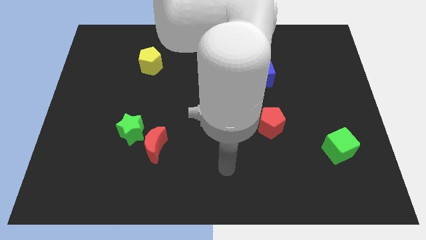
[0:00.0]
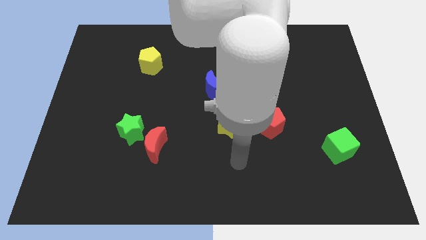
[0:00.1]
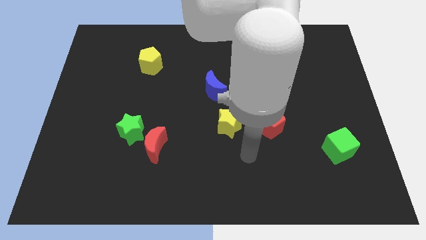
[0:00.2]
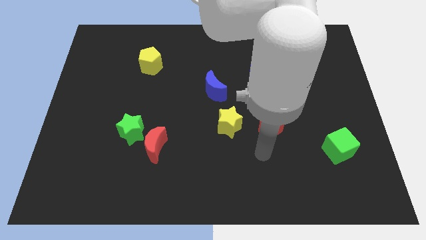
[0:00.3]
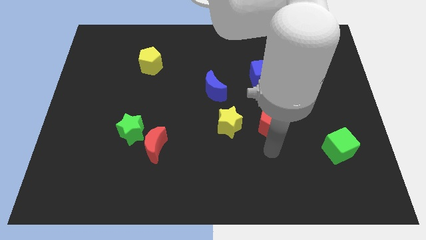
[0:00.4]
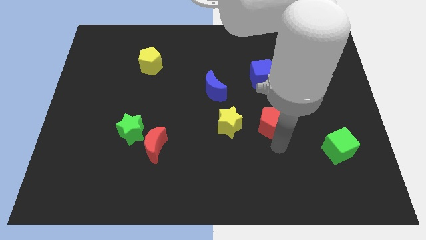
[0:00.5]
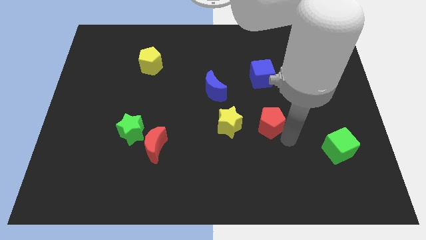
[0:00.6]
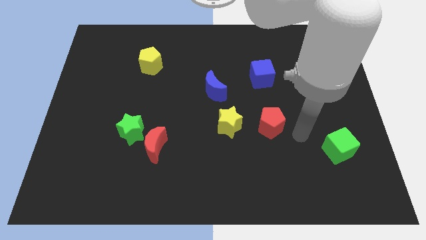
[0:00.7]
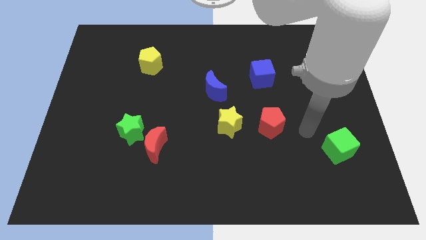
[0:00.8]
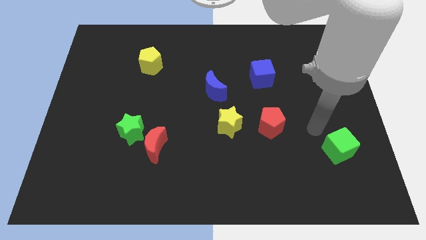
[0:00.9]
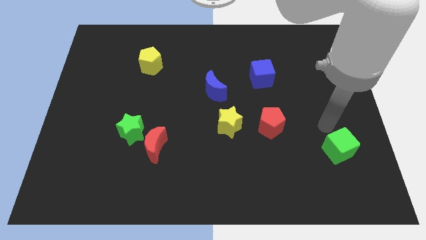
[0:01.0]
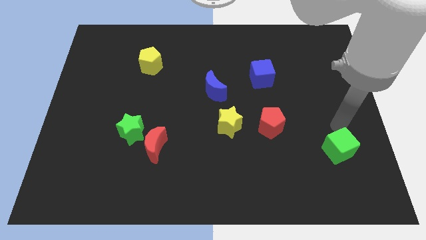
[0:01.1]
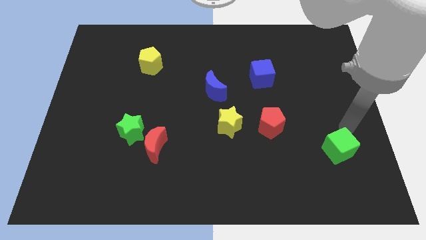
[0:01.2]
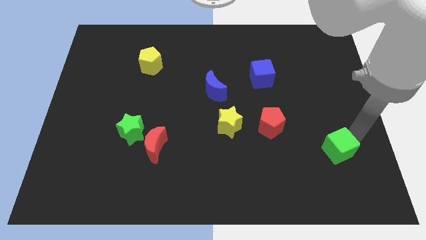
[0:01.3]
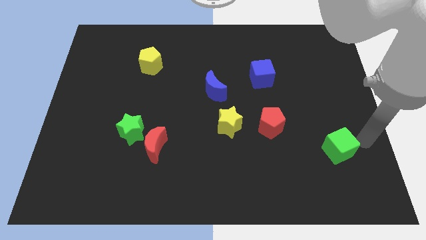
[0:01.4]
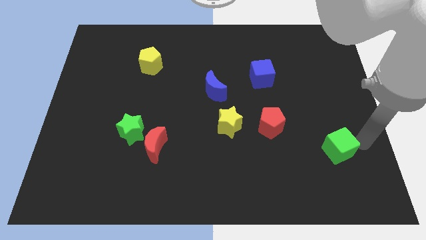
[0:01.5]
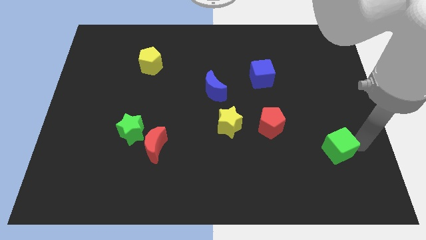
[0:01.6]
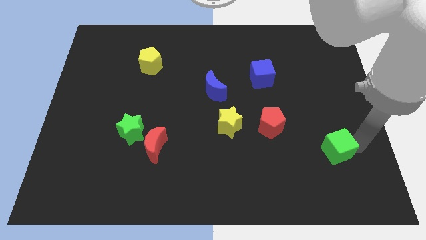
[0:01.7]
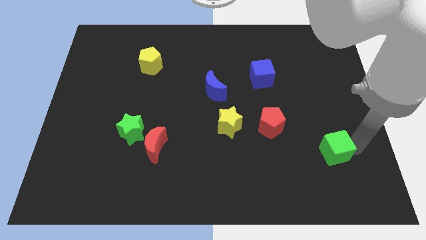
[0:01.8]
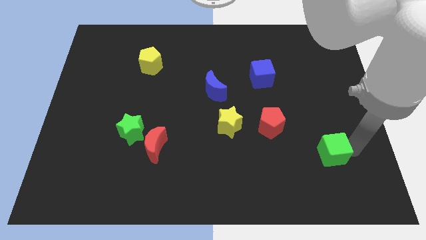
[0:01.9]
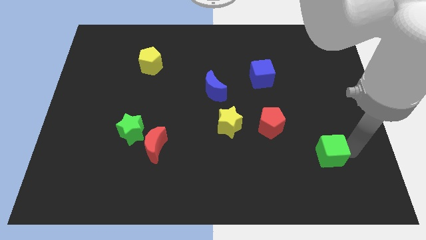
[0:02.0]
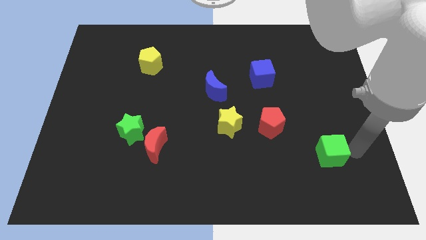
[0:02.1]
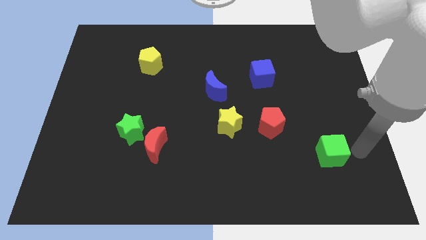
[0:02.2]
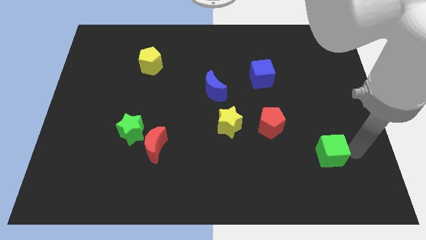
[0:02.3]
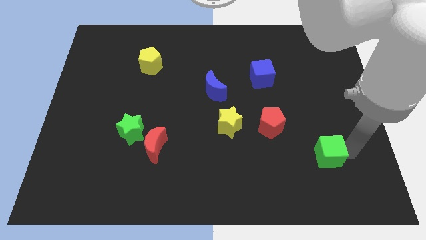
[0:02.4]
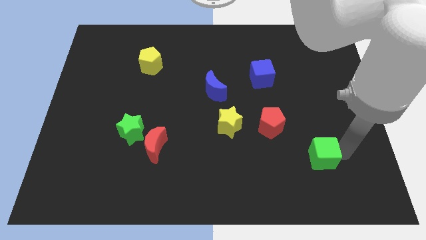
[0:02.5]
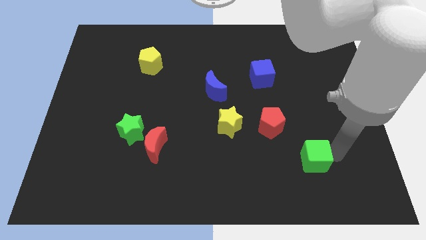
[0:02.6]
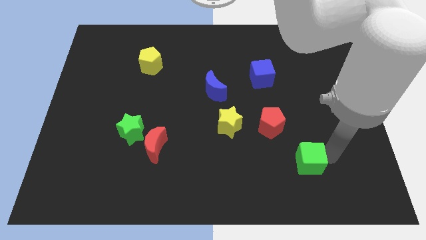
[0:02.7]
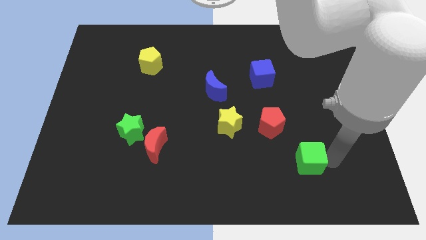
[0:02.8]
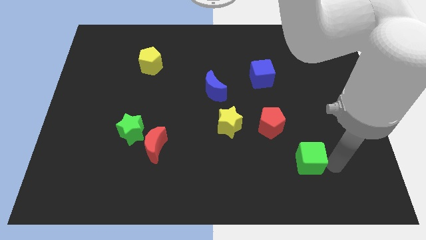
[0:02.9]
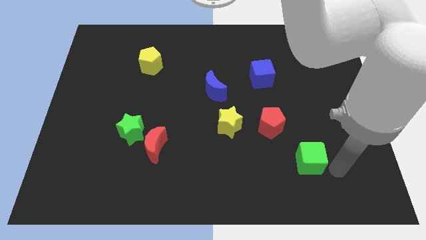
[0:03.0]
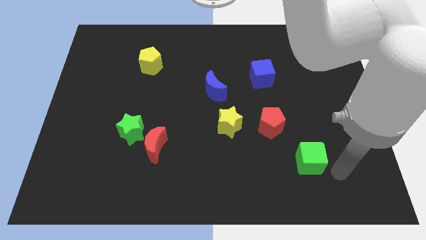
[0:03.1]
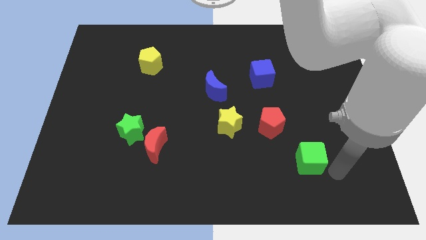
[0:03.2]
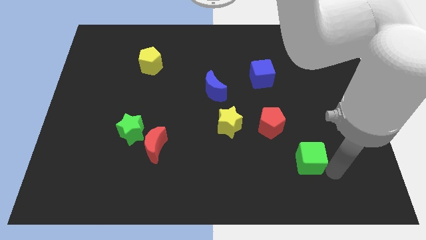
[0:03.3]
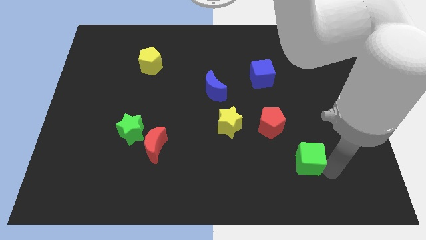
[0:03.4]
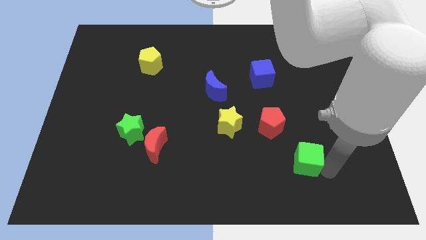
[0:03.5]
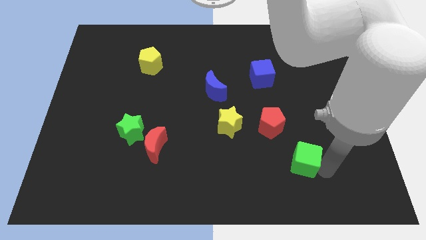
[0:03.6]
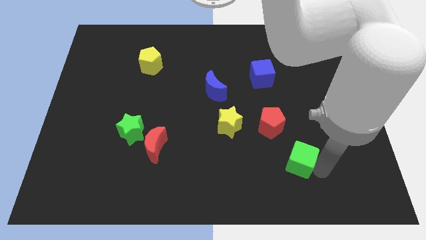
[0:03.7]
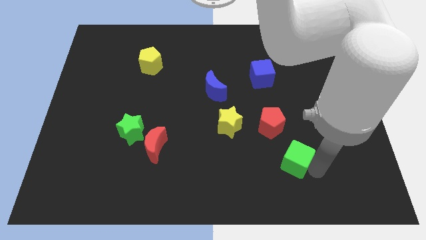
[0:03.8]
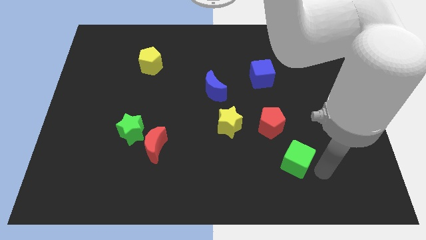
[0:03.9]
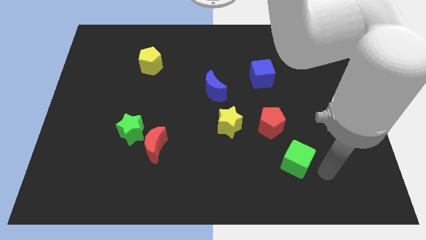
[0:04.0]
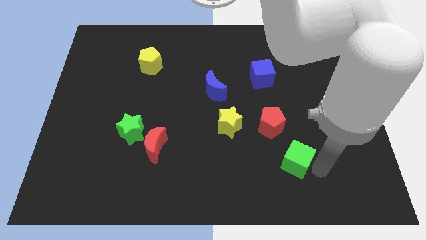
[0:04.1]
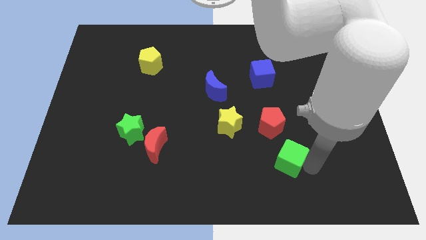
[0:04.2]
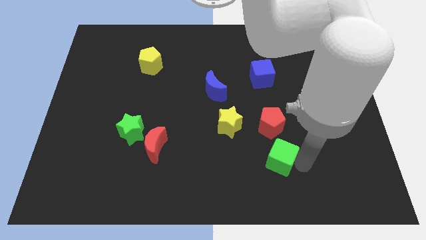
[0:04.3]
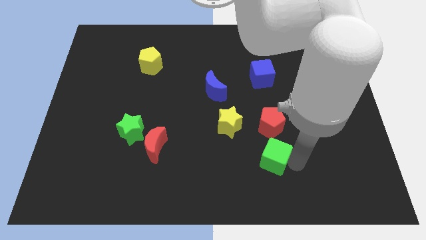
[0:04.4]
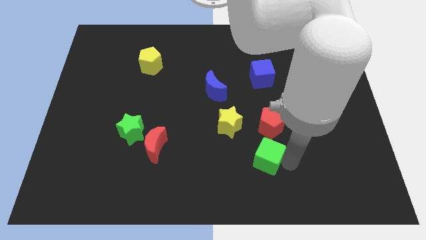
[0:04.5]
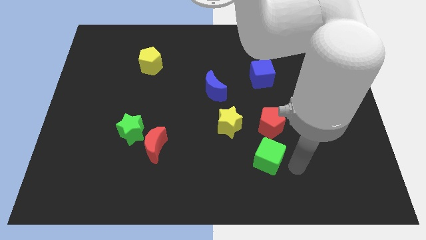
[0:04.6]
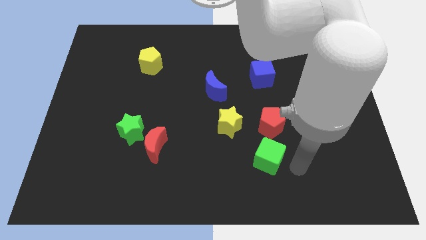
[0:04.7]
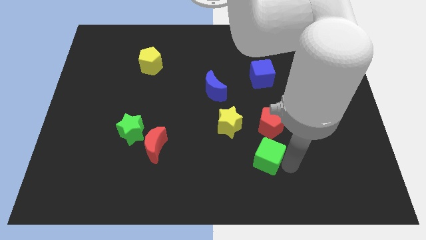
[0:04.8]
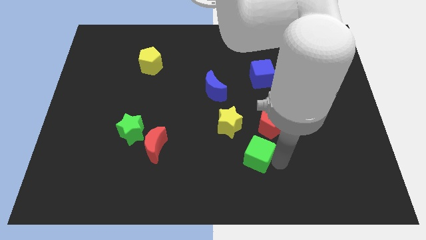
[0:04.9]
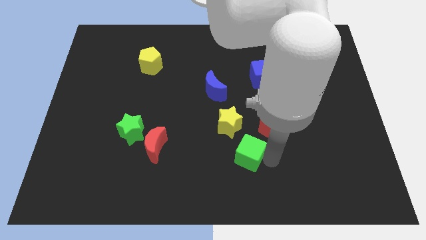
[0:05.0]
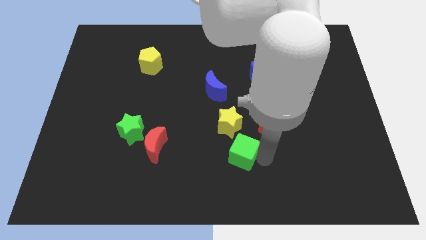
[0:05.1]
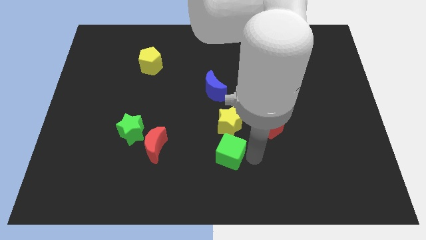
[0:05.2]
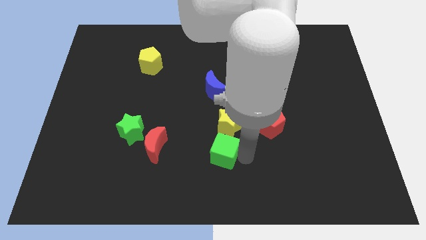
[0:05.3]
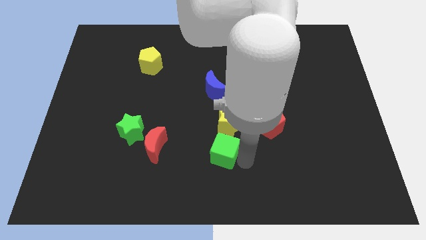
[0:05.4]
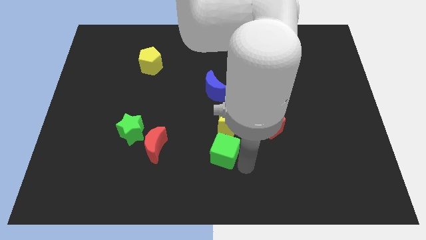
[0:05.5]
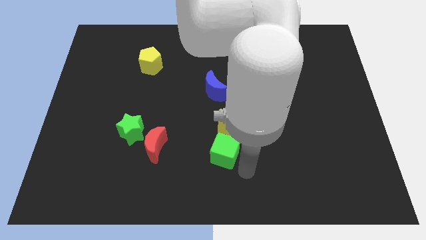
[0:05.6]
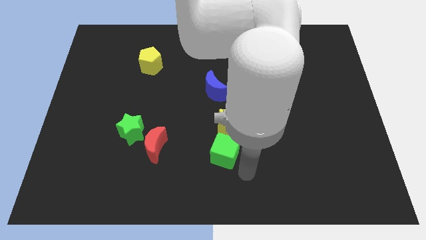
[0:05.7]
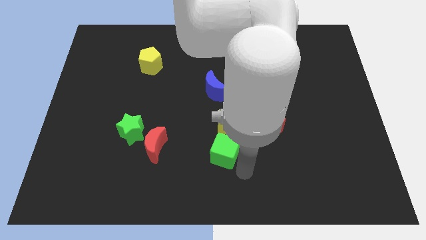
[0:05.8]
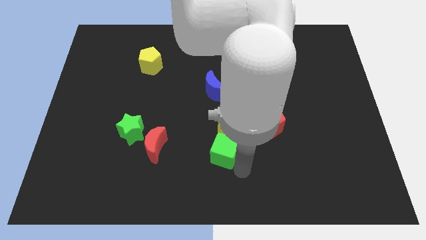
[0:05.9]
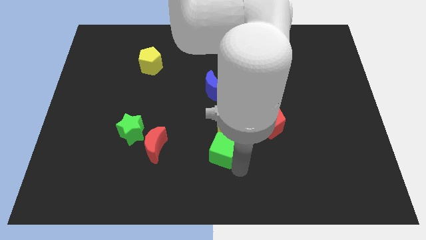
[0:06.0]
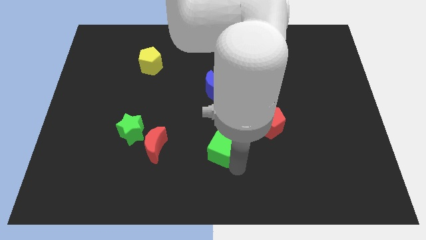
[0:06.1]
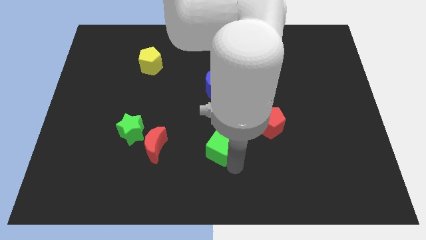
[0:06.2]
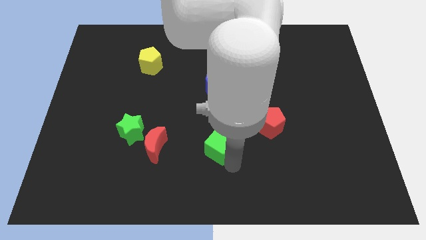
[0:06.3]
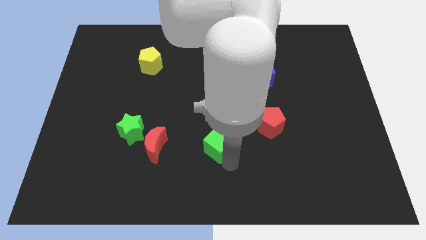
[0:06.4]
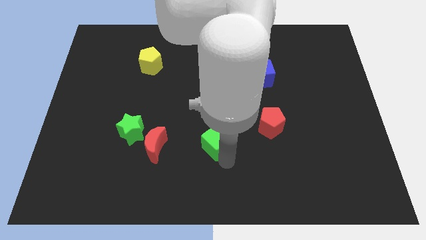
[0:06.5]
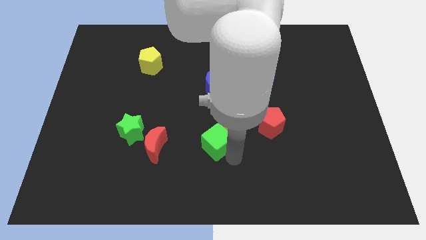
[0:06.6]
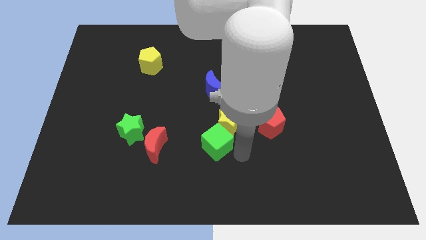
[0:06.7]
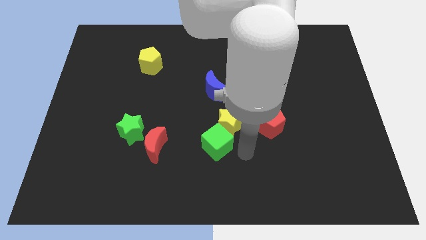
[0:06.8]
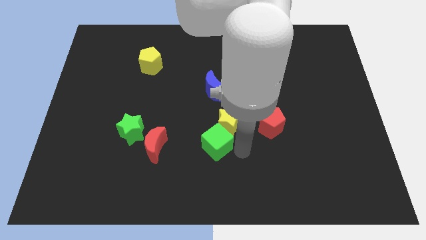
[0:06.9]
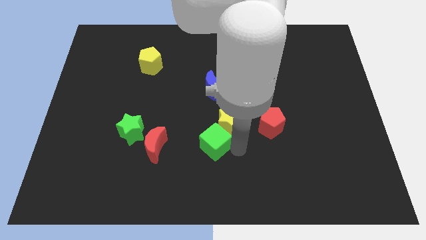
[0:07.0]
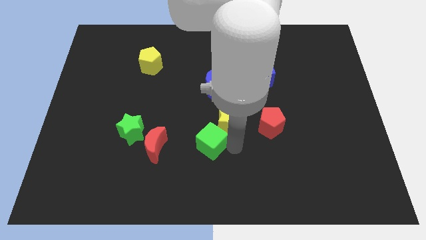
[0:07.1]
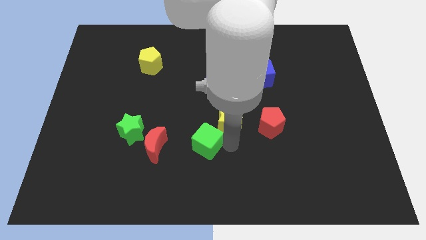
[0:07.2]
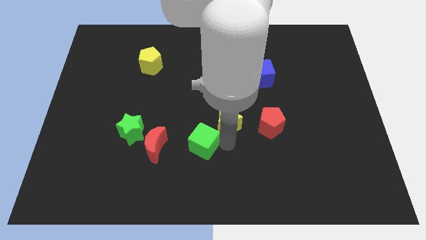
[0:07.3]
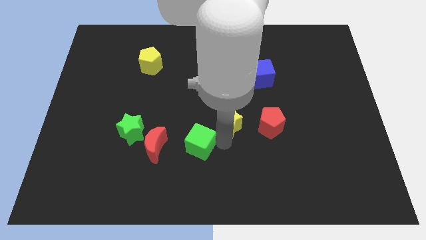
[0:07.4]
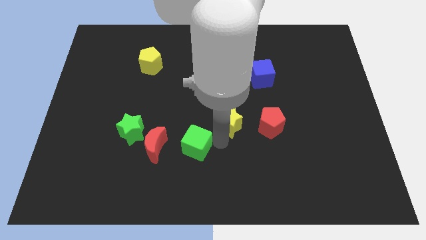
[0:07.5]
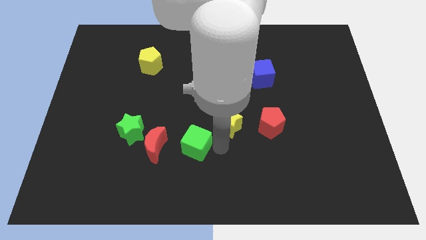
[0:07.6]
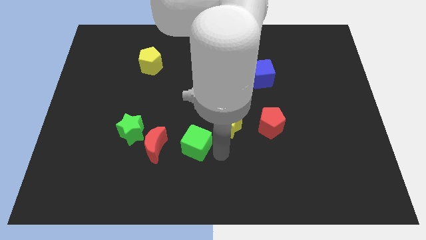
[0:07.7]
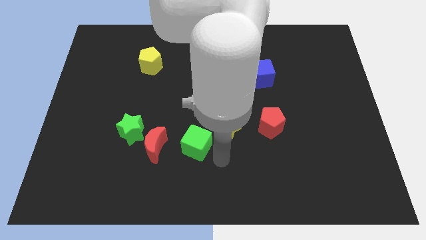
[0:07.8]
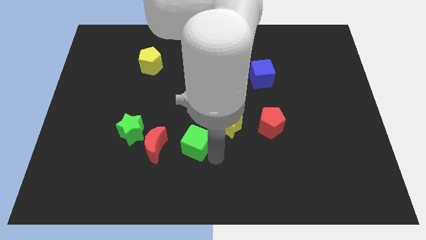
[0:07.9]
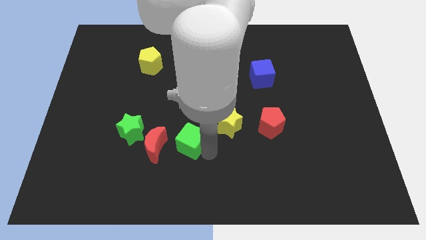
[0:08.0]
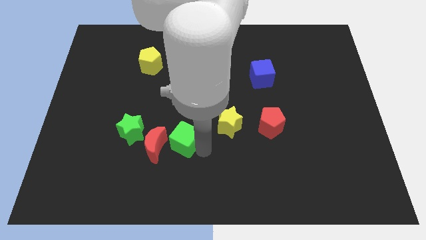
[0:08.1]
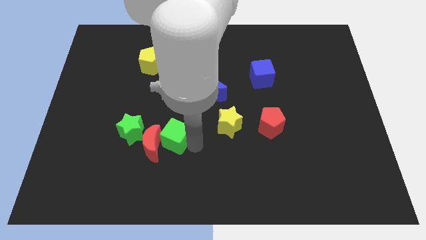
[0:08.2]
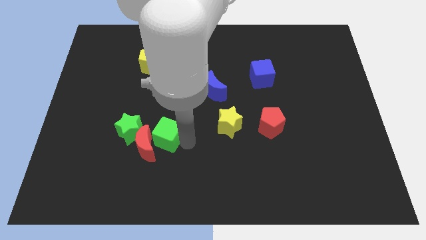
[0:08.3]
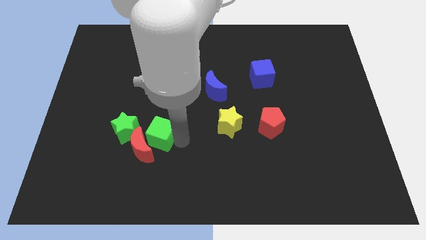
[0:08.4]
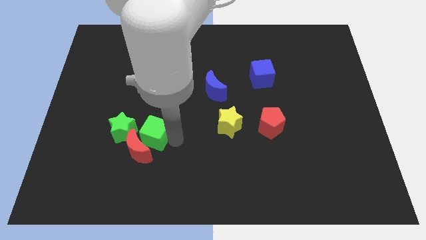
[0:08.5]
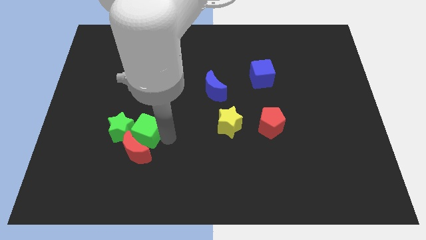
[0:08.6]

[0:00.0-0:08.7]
slide the green cube close to the green star
